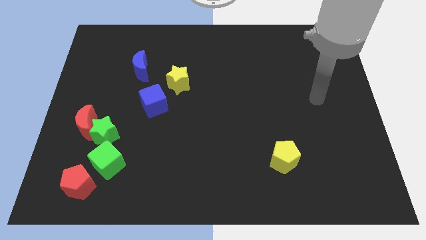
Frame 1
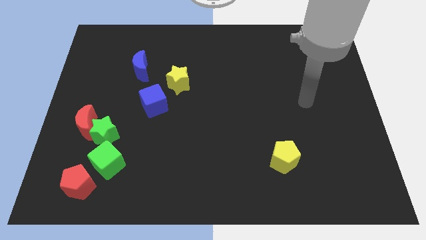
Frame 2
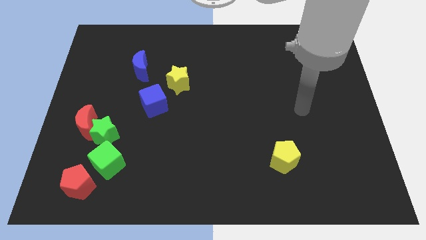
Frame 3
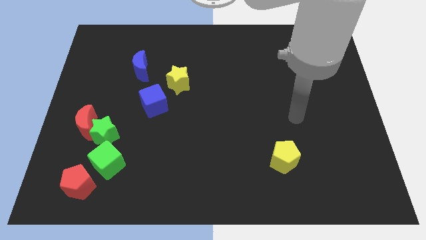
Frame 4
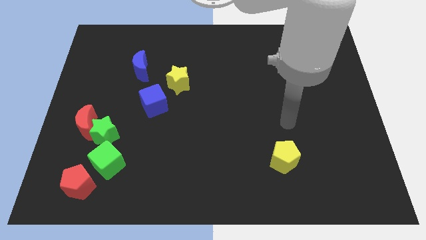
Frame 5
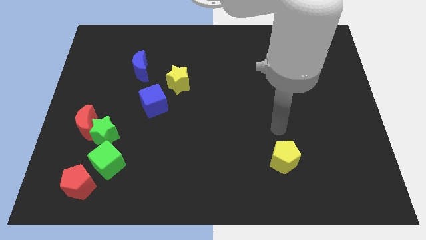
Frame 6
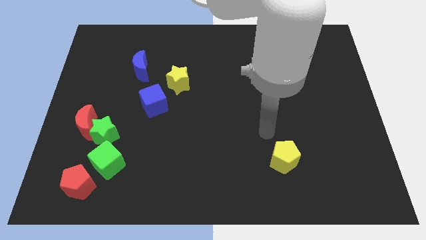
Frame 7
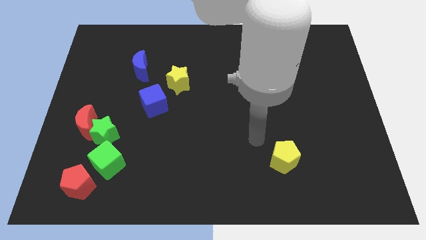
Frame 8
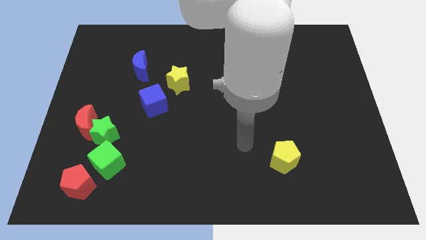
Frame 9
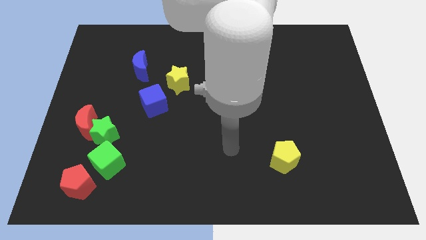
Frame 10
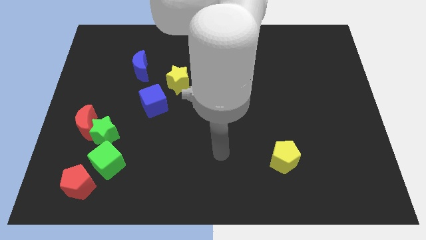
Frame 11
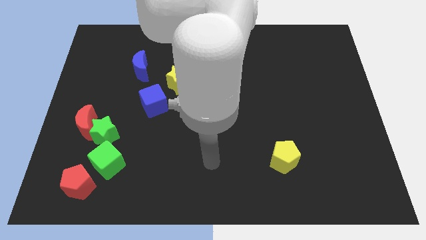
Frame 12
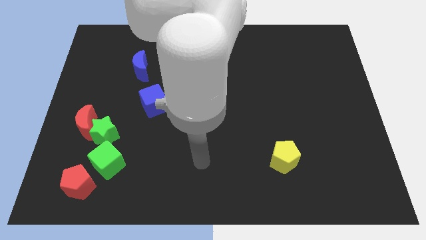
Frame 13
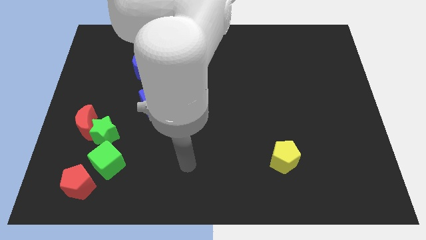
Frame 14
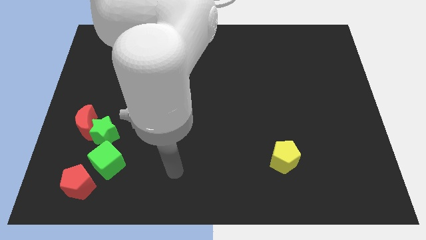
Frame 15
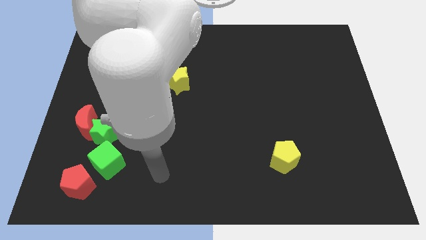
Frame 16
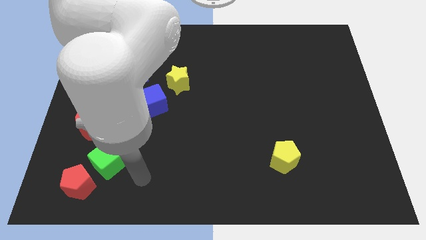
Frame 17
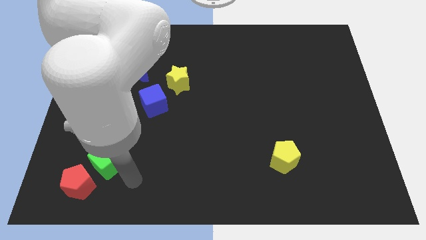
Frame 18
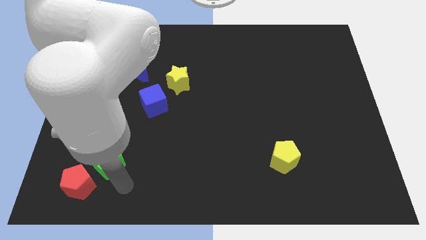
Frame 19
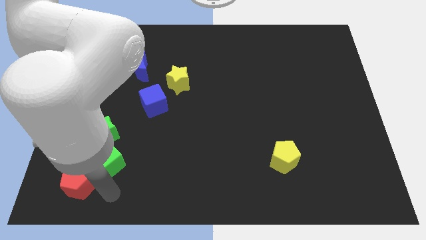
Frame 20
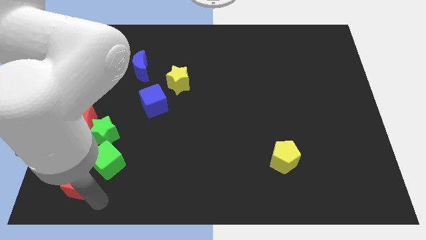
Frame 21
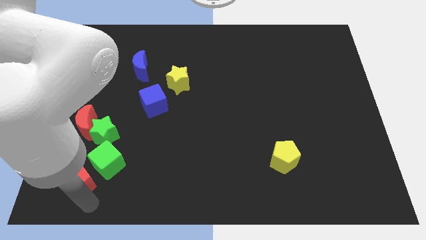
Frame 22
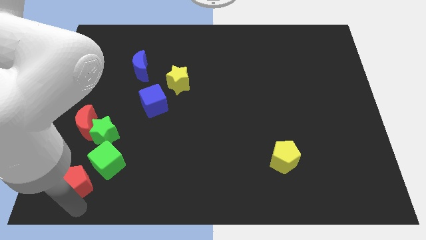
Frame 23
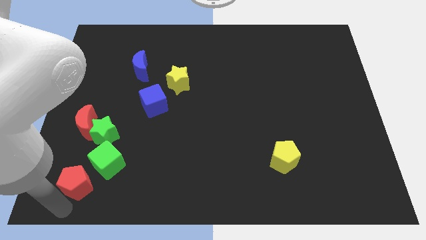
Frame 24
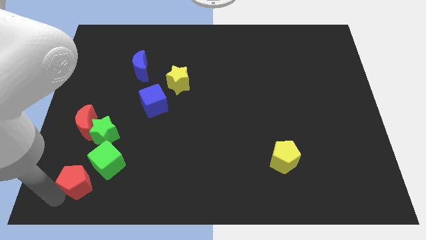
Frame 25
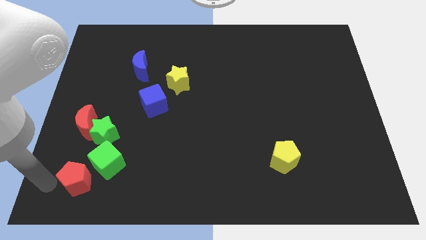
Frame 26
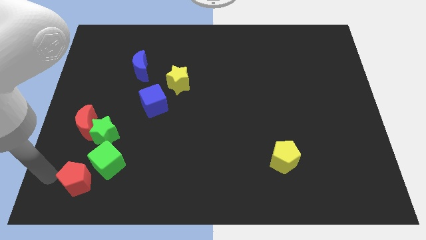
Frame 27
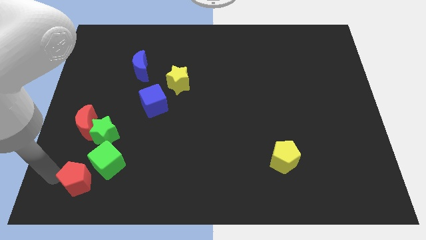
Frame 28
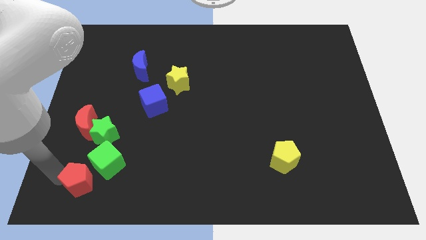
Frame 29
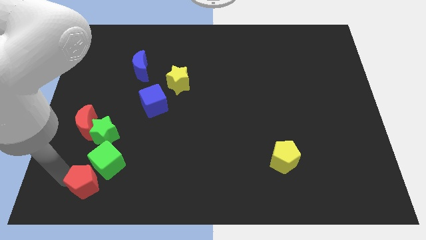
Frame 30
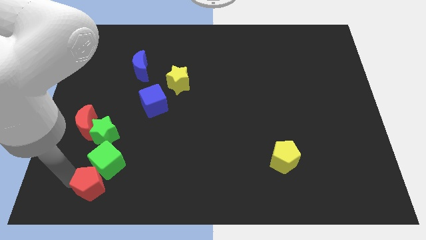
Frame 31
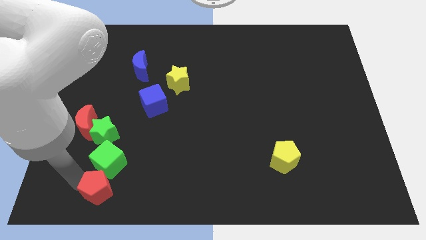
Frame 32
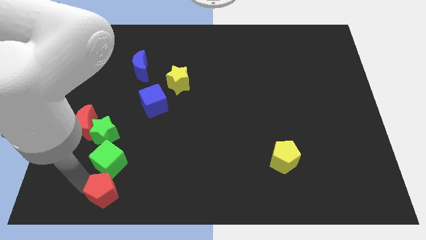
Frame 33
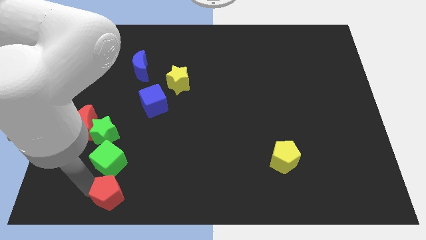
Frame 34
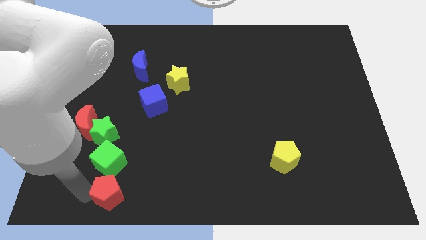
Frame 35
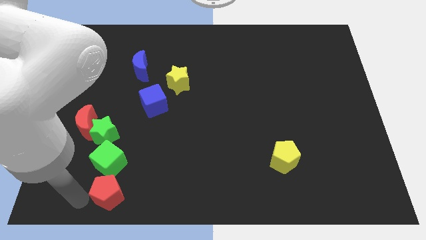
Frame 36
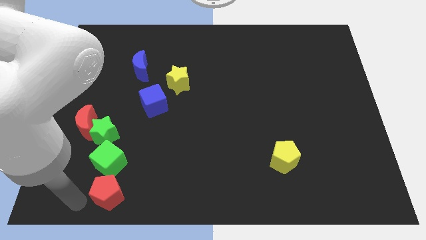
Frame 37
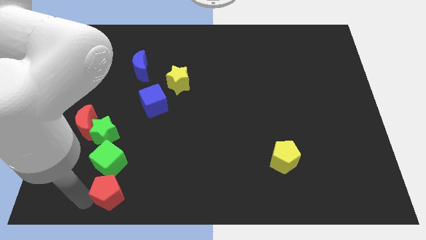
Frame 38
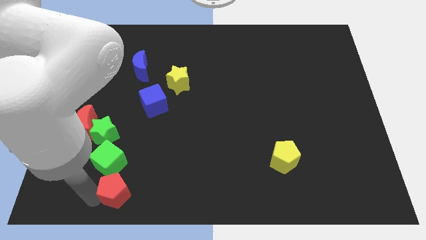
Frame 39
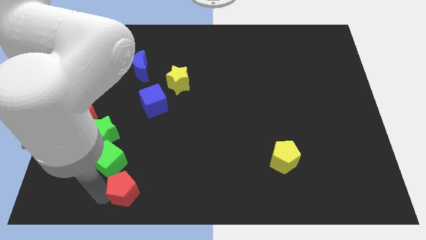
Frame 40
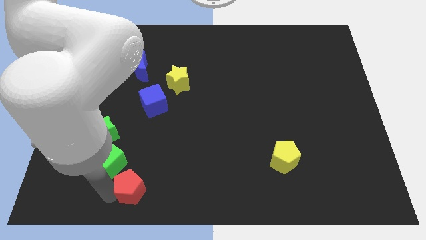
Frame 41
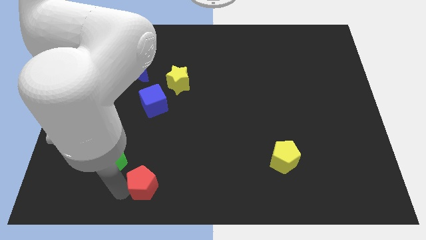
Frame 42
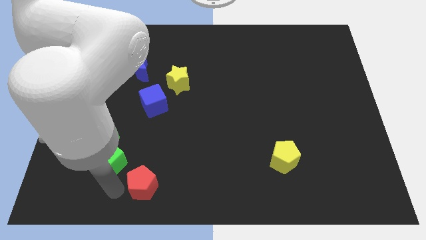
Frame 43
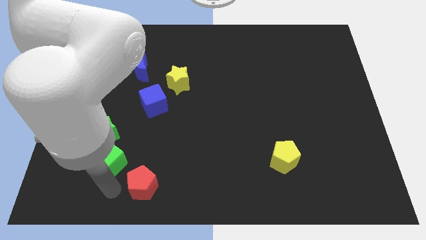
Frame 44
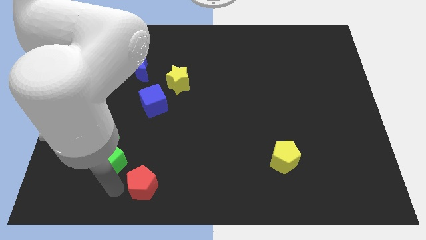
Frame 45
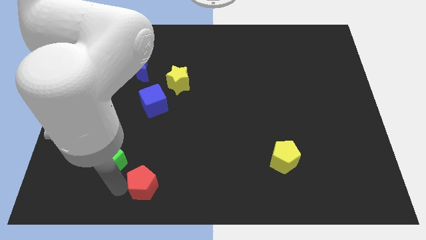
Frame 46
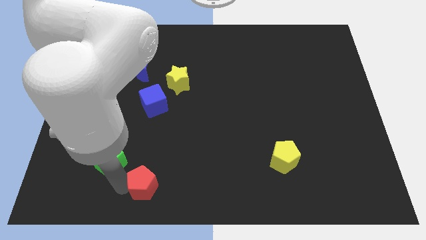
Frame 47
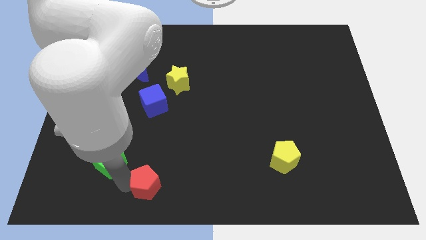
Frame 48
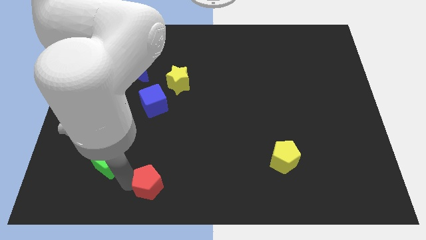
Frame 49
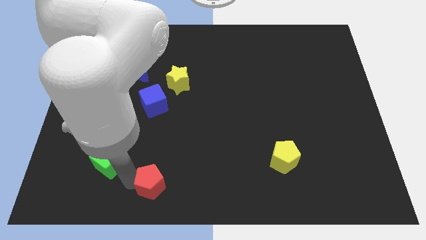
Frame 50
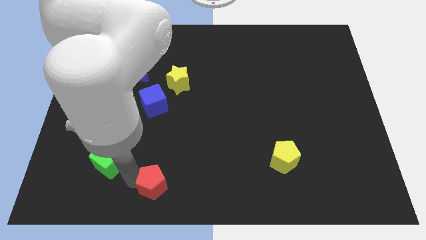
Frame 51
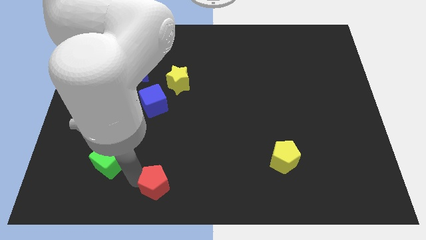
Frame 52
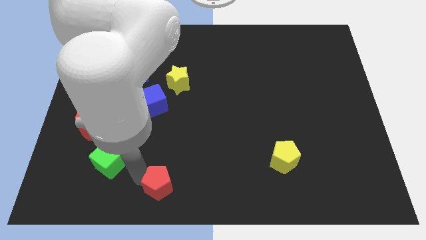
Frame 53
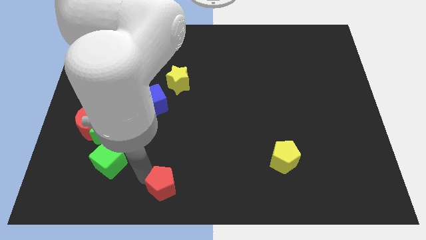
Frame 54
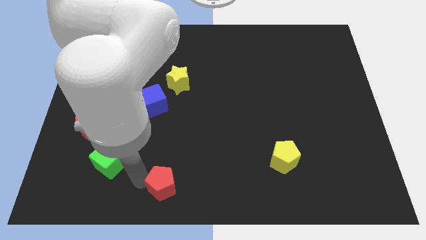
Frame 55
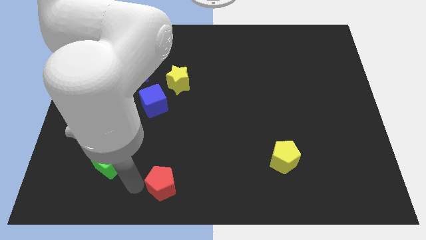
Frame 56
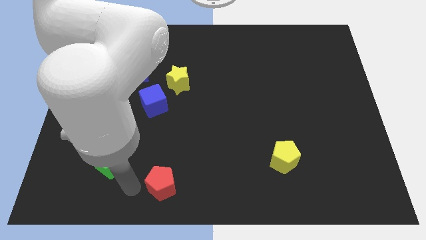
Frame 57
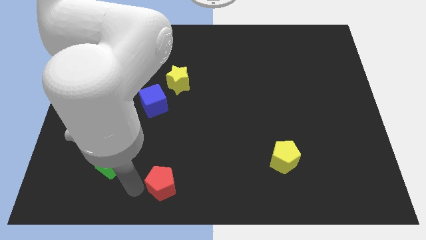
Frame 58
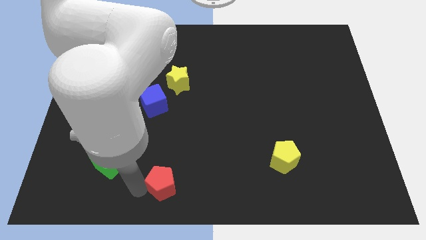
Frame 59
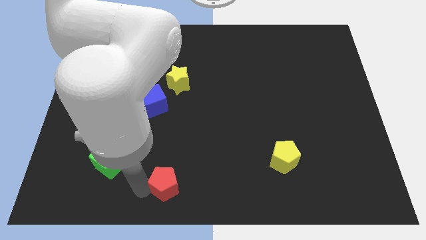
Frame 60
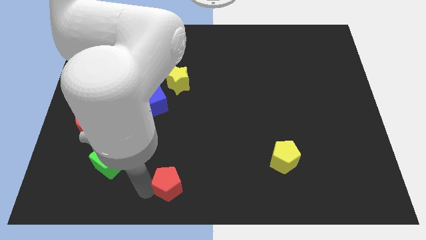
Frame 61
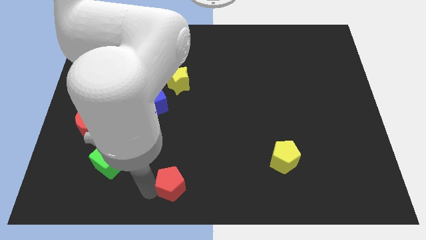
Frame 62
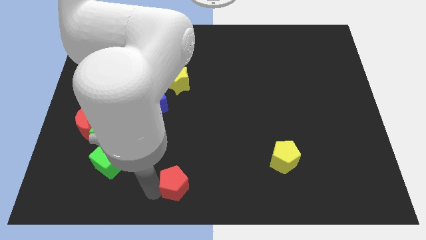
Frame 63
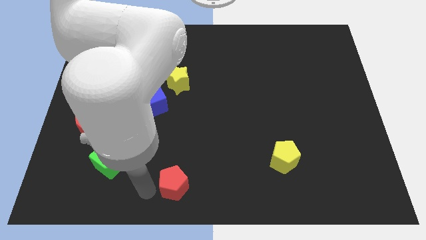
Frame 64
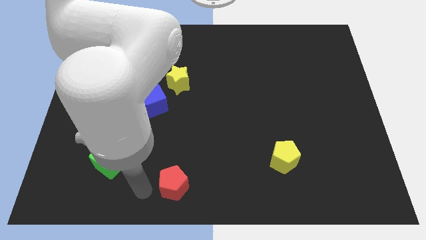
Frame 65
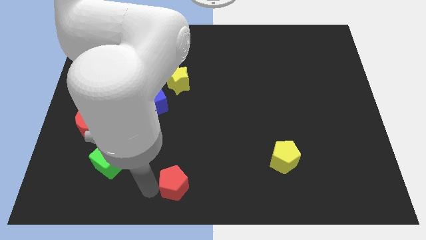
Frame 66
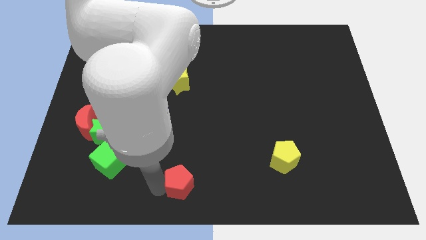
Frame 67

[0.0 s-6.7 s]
move the red pentagon right

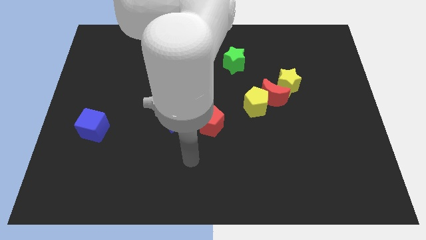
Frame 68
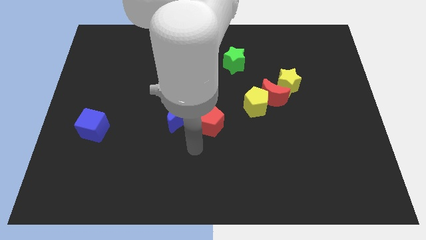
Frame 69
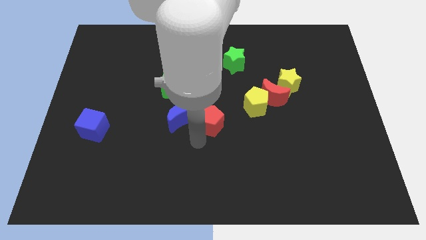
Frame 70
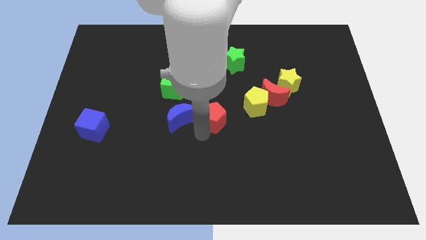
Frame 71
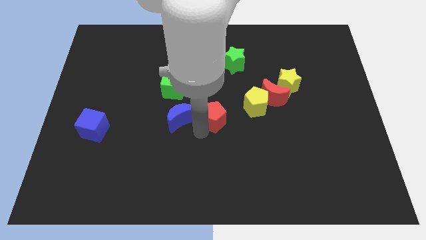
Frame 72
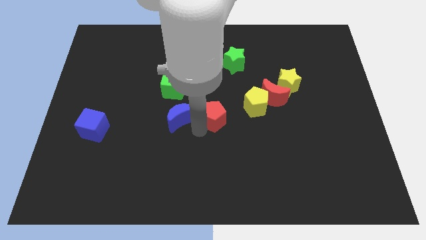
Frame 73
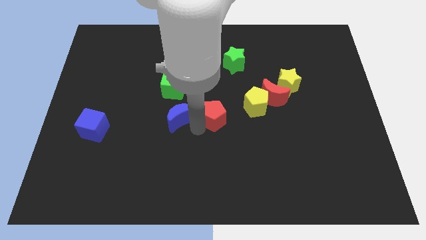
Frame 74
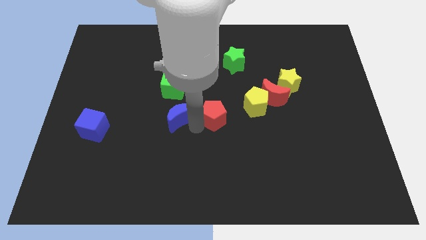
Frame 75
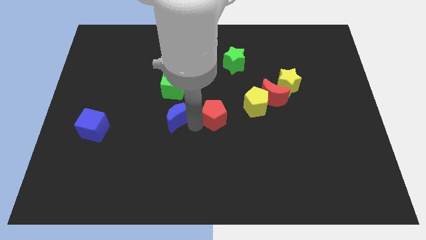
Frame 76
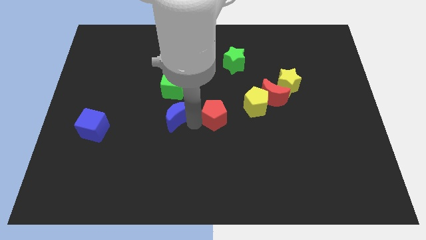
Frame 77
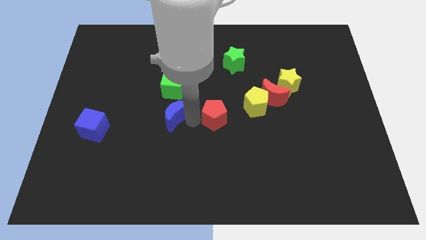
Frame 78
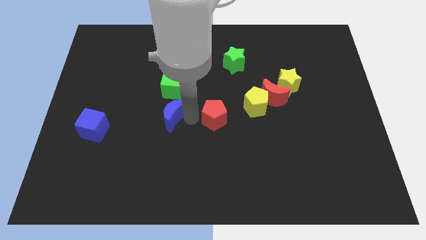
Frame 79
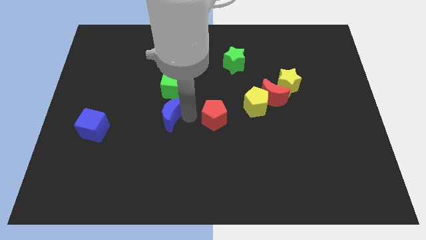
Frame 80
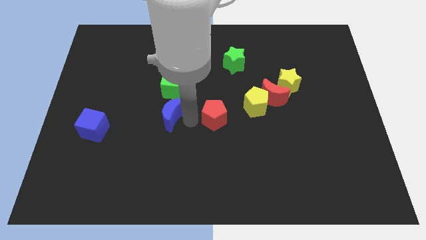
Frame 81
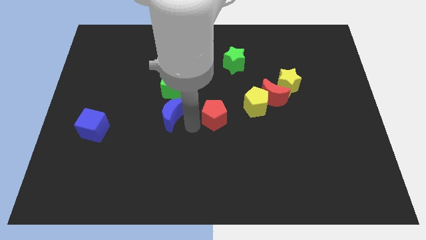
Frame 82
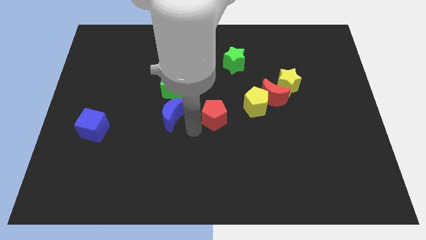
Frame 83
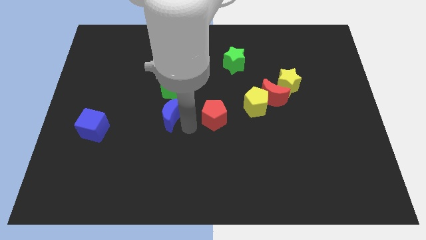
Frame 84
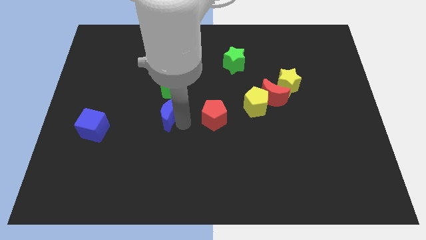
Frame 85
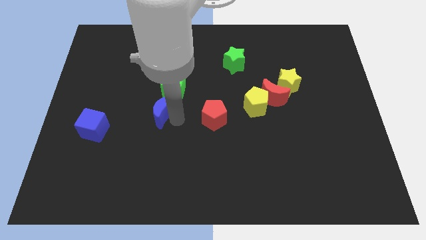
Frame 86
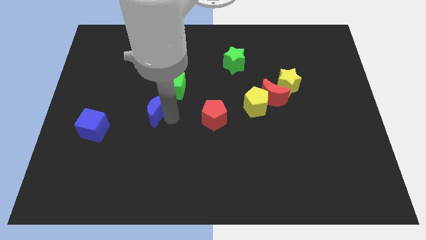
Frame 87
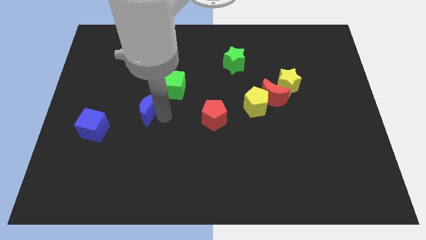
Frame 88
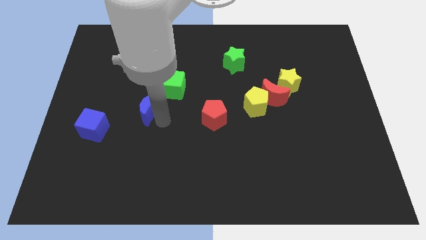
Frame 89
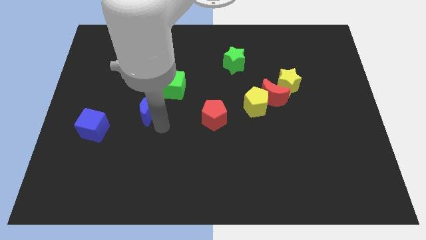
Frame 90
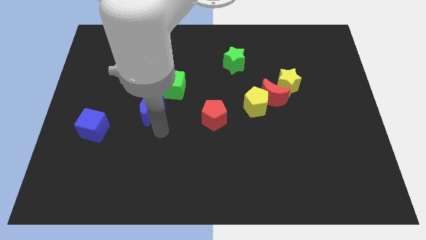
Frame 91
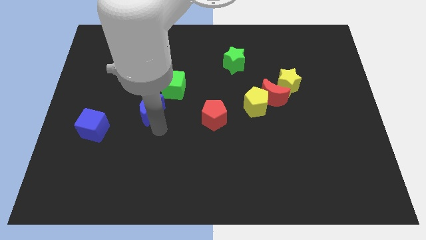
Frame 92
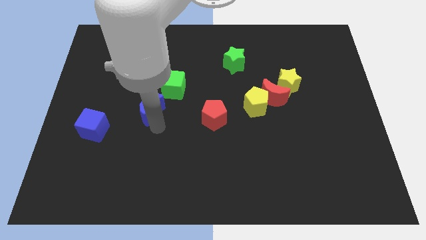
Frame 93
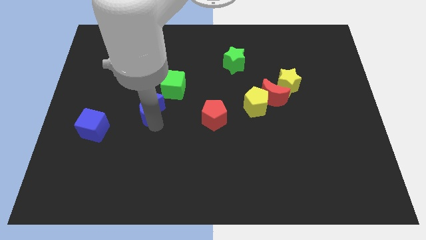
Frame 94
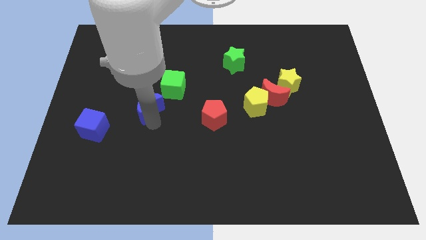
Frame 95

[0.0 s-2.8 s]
push the blue moon slightly diagonally upwards and to the left
